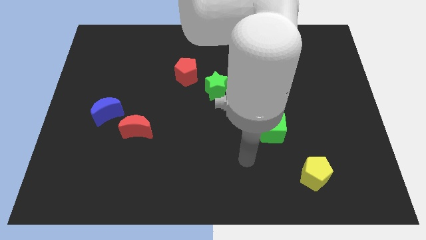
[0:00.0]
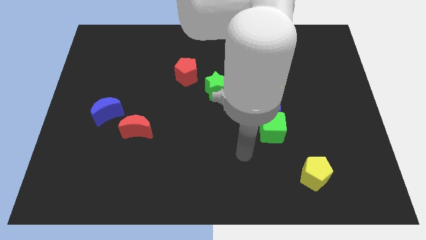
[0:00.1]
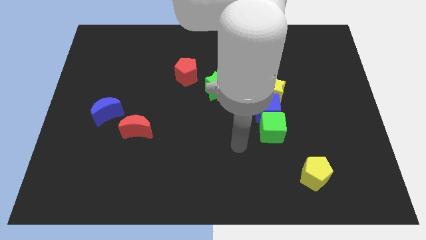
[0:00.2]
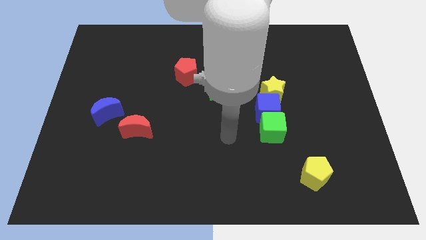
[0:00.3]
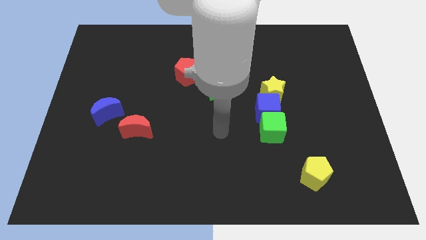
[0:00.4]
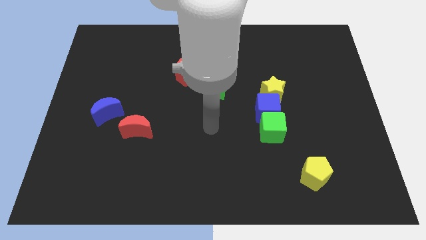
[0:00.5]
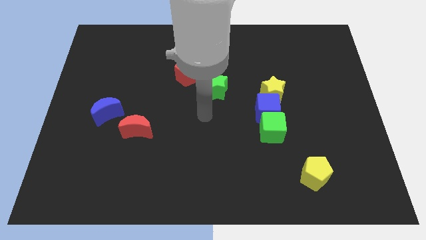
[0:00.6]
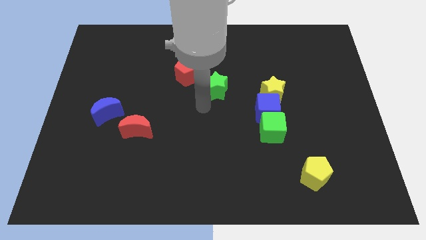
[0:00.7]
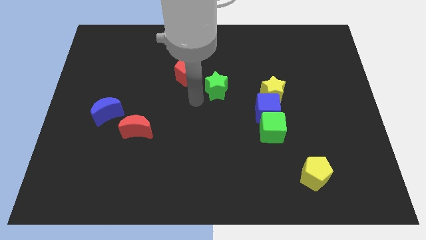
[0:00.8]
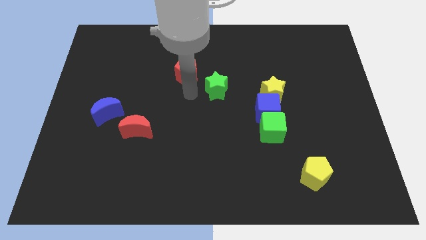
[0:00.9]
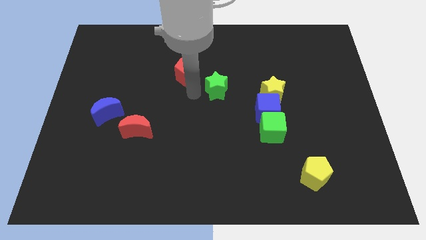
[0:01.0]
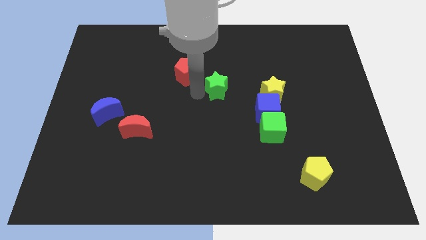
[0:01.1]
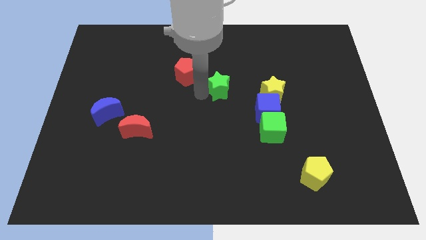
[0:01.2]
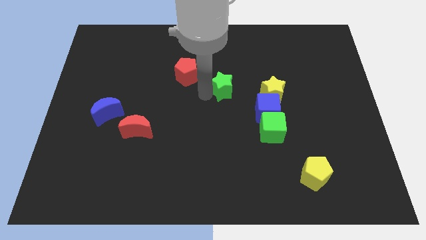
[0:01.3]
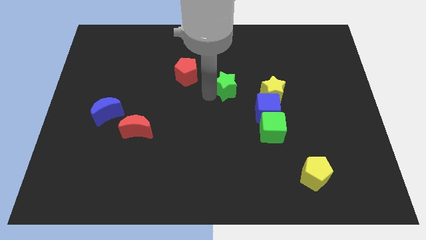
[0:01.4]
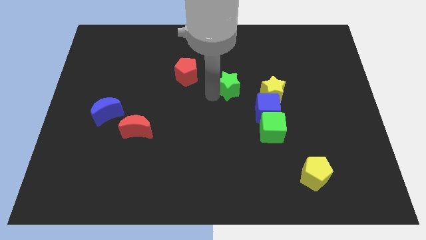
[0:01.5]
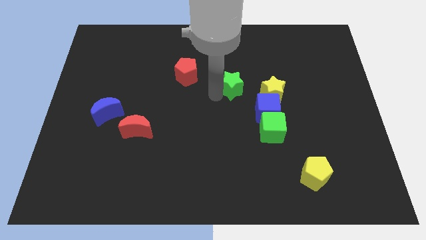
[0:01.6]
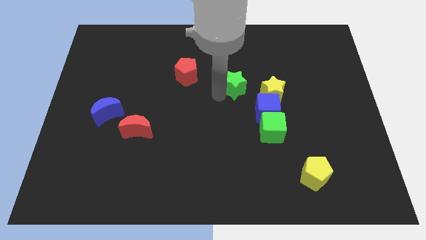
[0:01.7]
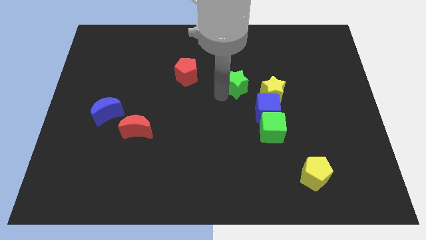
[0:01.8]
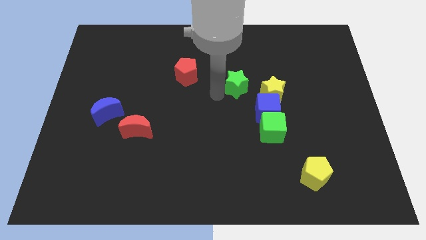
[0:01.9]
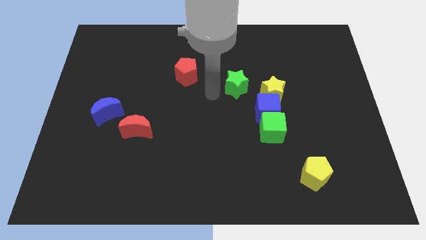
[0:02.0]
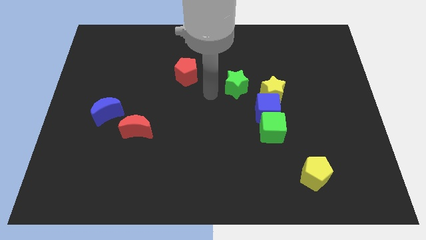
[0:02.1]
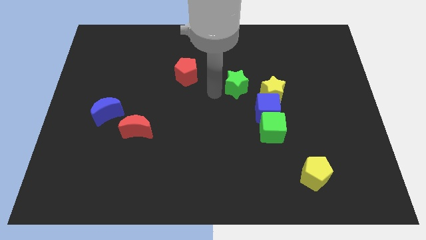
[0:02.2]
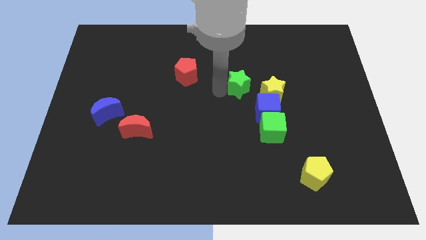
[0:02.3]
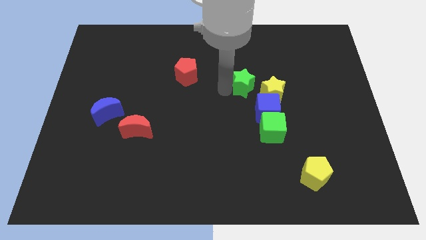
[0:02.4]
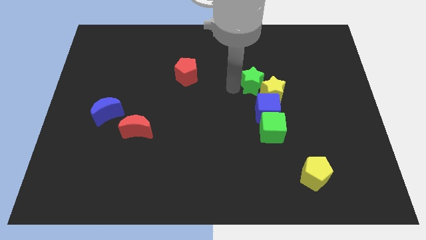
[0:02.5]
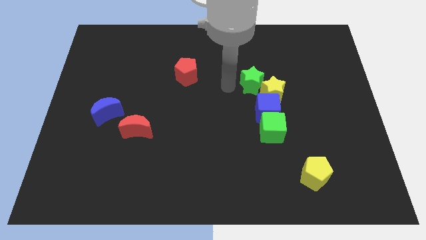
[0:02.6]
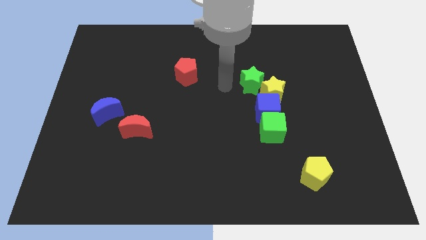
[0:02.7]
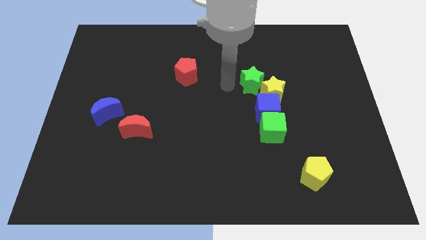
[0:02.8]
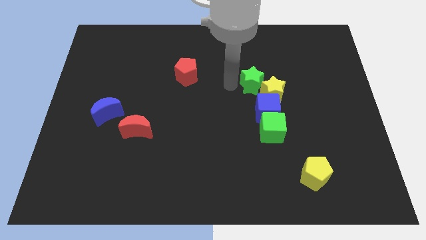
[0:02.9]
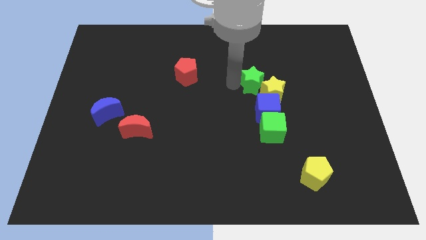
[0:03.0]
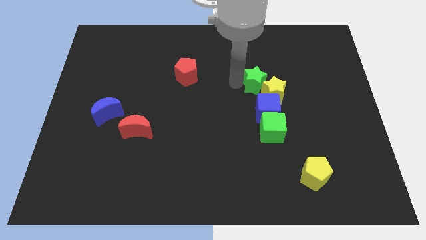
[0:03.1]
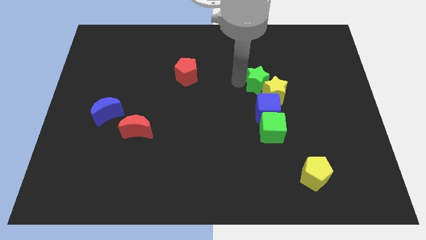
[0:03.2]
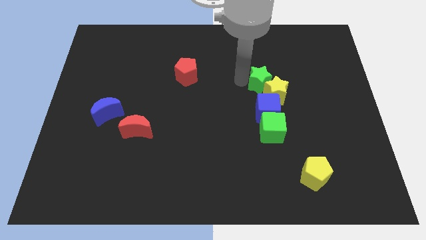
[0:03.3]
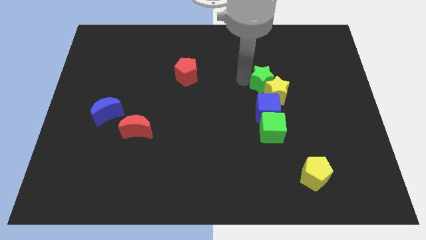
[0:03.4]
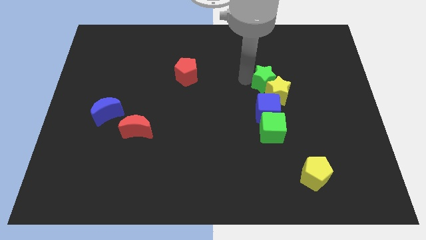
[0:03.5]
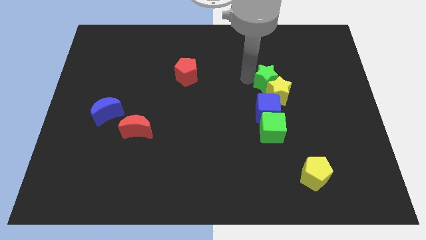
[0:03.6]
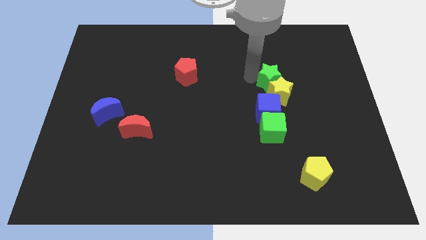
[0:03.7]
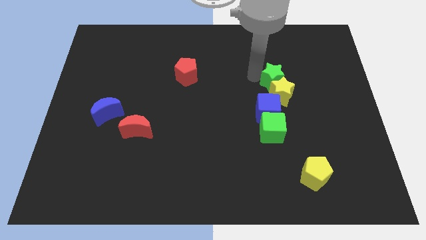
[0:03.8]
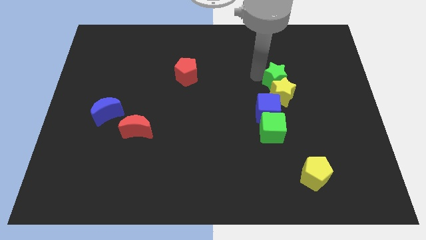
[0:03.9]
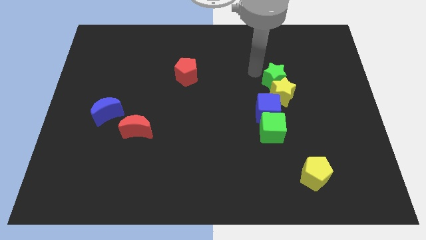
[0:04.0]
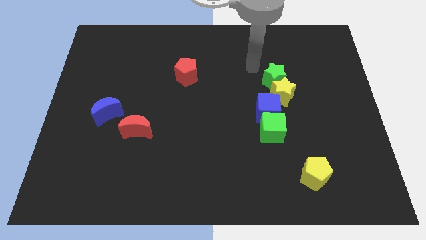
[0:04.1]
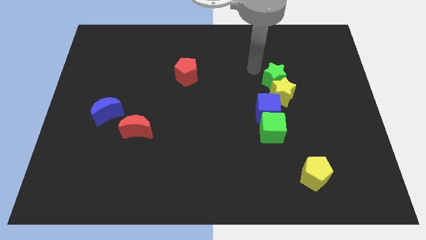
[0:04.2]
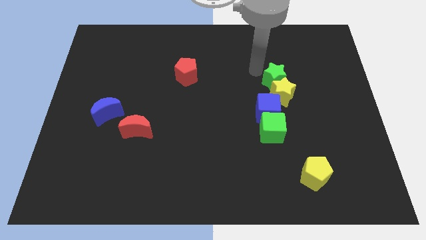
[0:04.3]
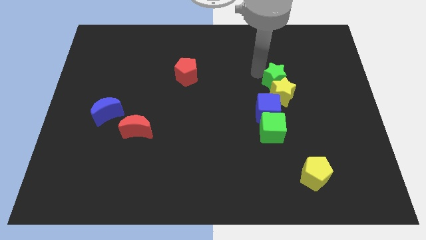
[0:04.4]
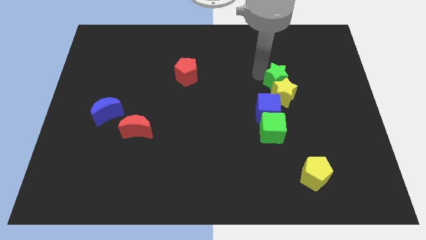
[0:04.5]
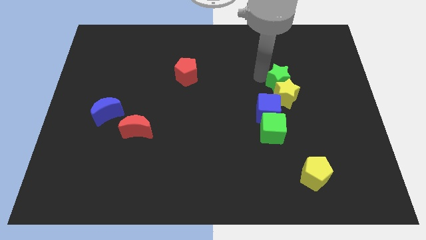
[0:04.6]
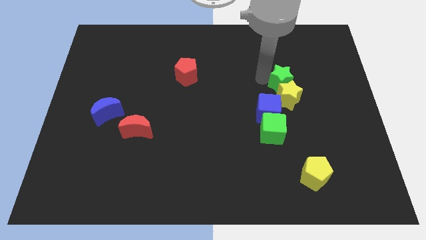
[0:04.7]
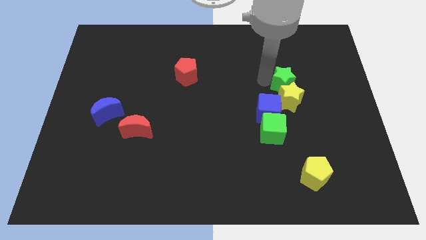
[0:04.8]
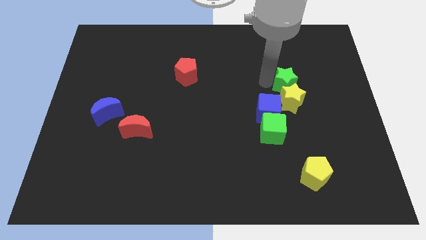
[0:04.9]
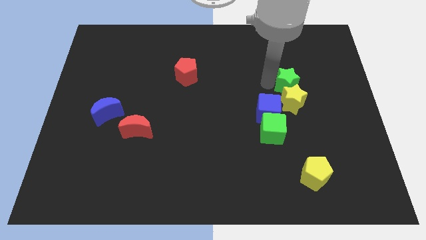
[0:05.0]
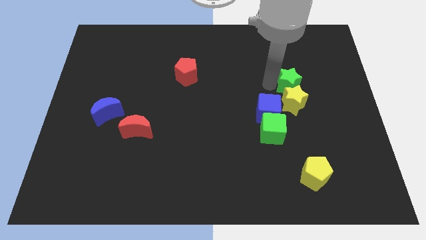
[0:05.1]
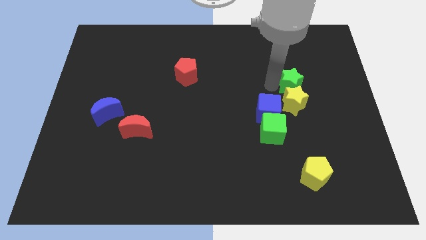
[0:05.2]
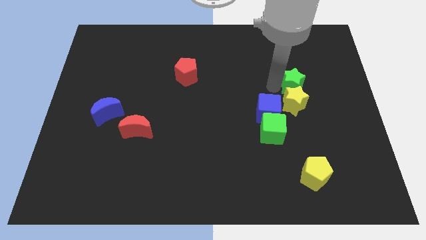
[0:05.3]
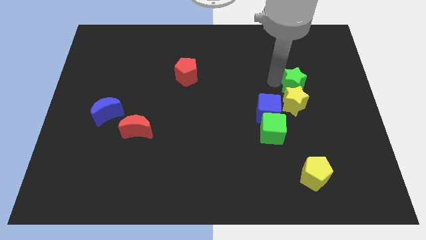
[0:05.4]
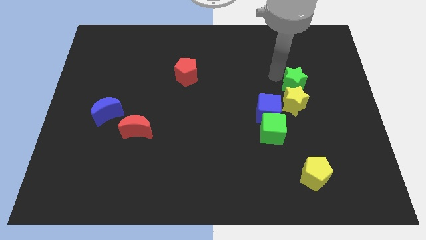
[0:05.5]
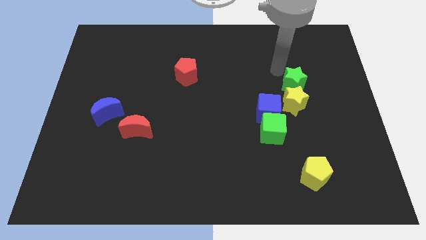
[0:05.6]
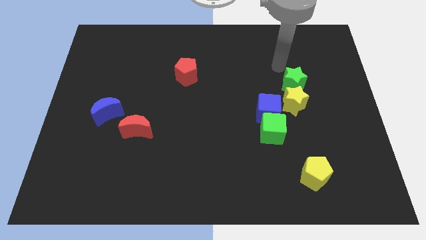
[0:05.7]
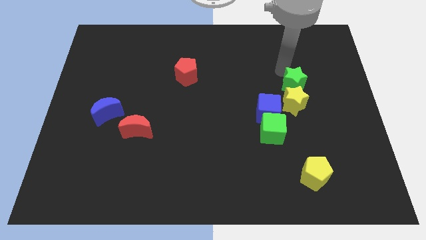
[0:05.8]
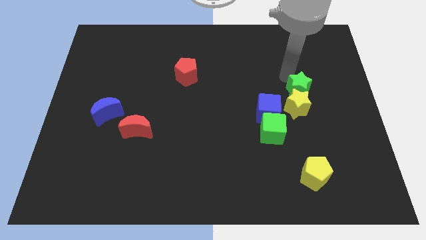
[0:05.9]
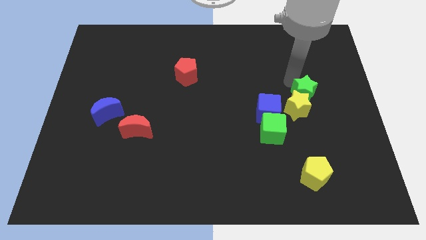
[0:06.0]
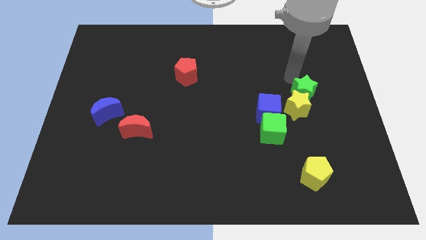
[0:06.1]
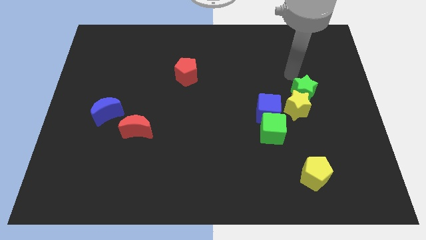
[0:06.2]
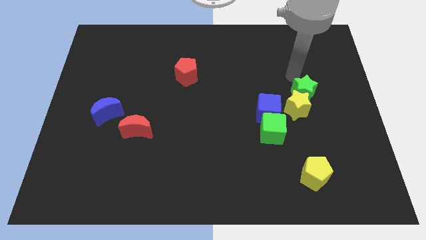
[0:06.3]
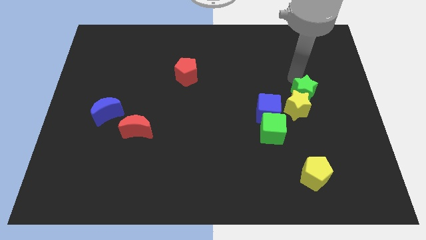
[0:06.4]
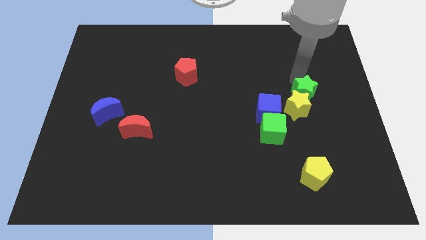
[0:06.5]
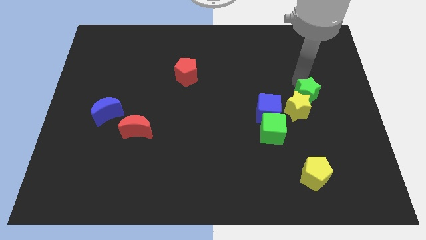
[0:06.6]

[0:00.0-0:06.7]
move the green star to the right of the blue cube
